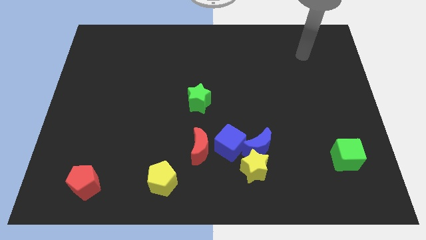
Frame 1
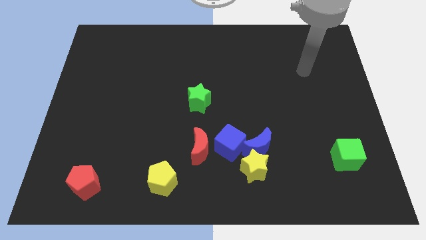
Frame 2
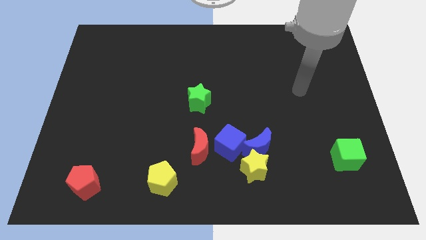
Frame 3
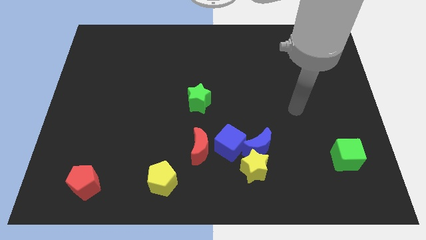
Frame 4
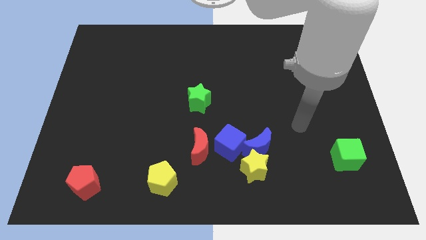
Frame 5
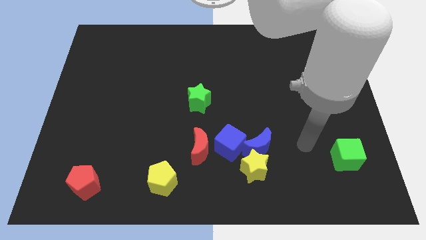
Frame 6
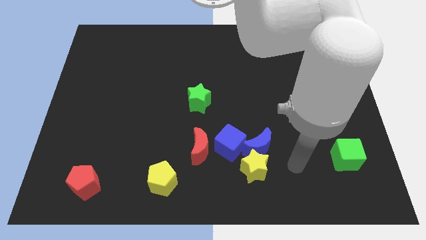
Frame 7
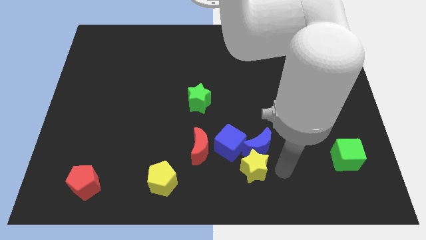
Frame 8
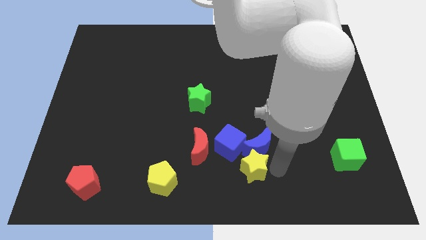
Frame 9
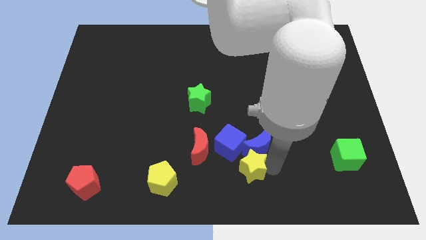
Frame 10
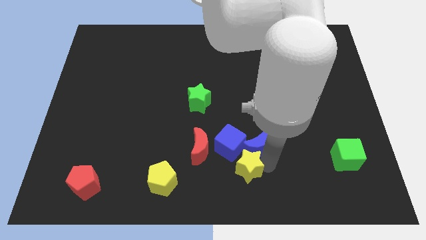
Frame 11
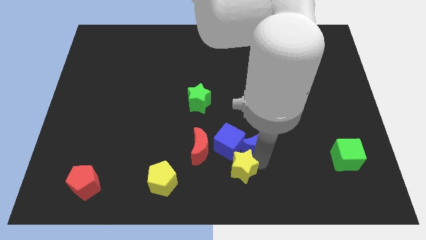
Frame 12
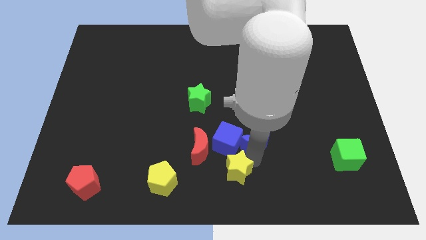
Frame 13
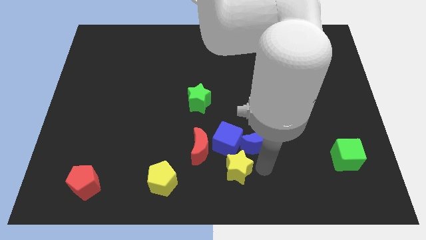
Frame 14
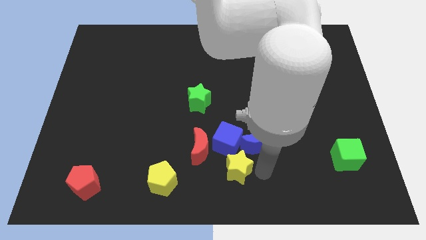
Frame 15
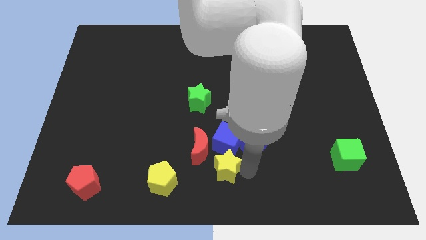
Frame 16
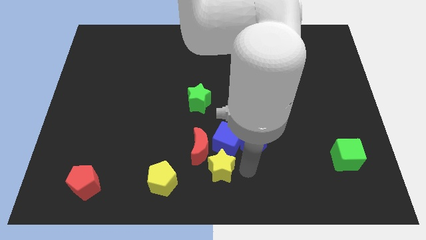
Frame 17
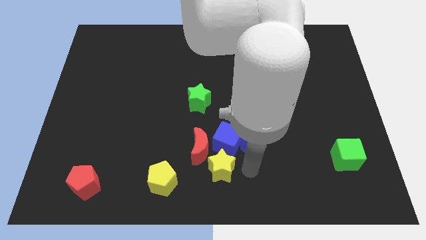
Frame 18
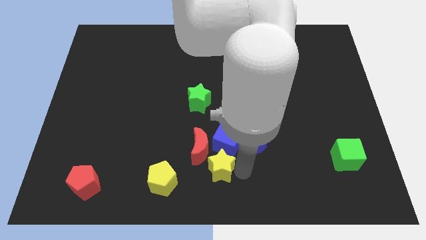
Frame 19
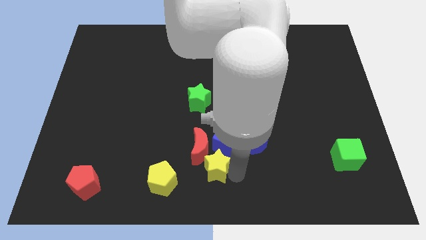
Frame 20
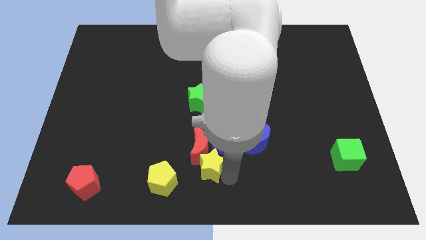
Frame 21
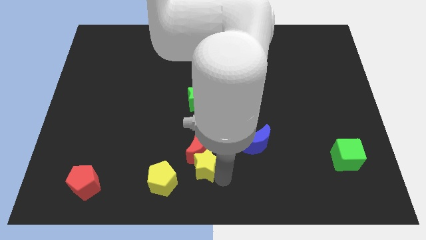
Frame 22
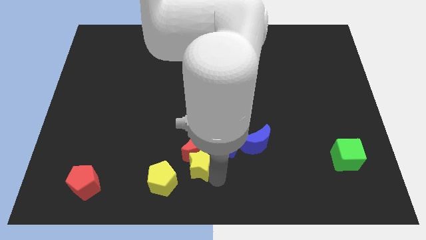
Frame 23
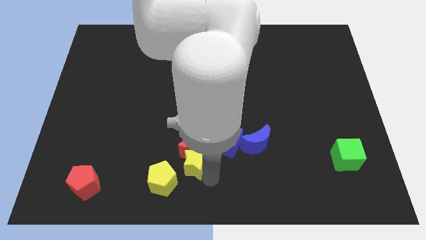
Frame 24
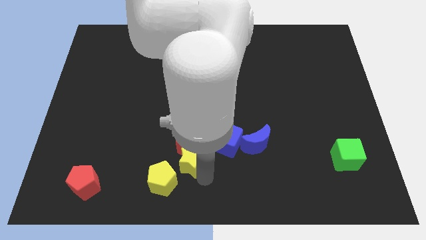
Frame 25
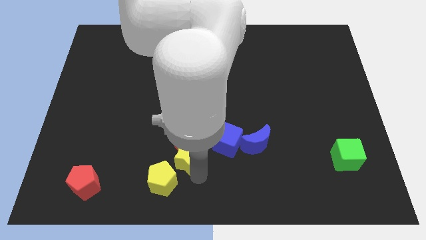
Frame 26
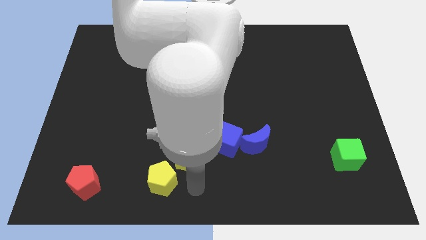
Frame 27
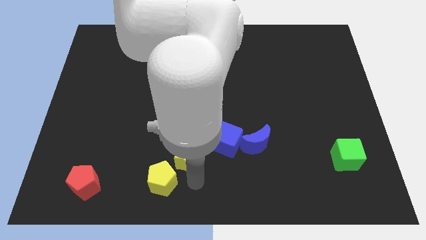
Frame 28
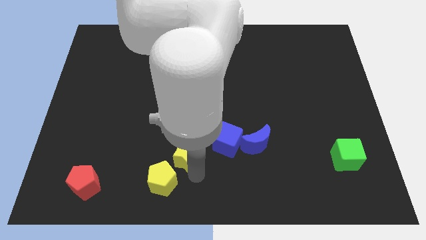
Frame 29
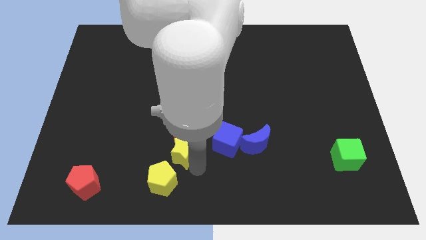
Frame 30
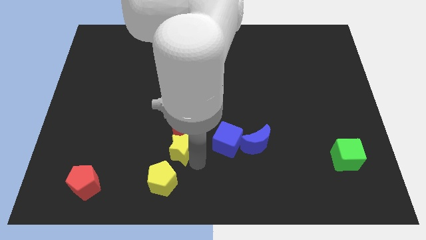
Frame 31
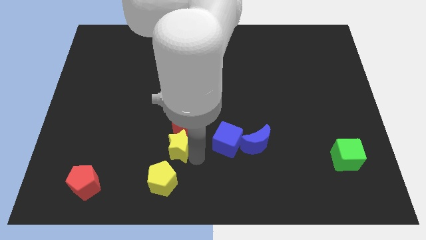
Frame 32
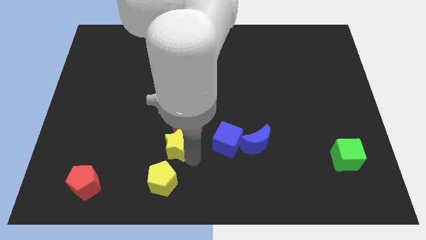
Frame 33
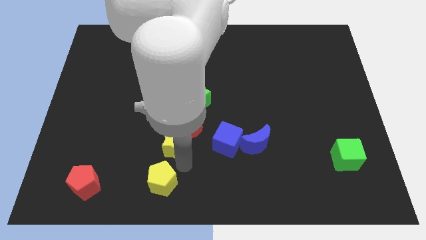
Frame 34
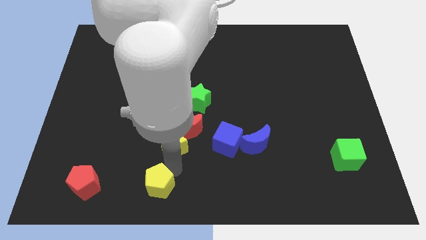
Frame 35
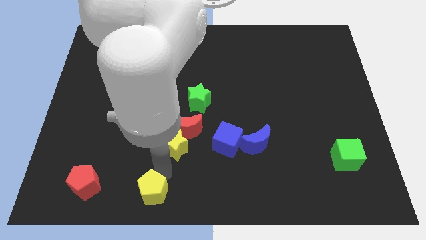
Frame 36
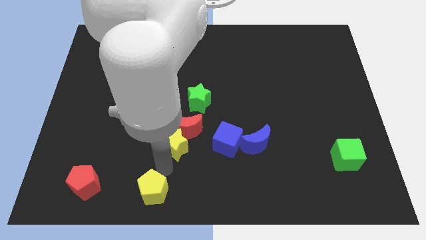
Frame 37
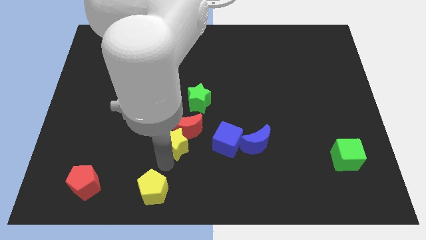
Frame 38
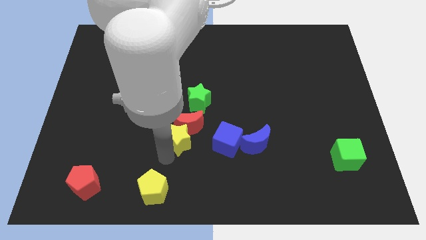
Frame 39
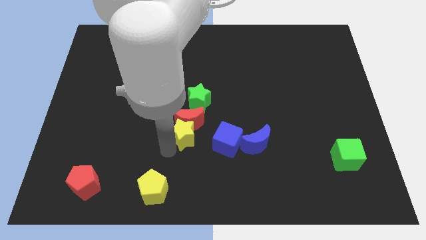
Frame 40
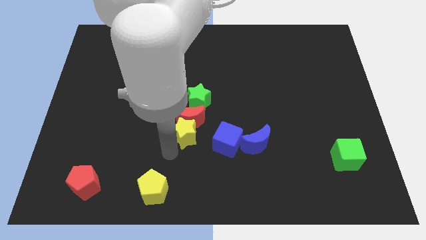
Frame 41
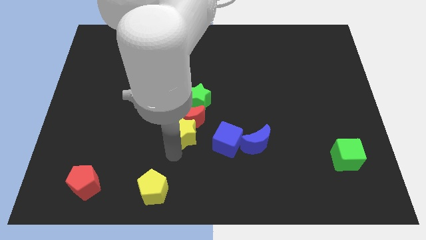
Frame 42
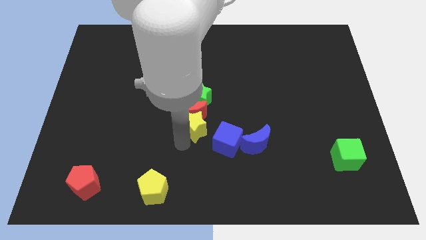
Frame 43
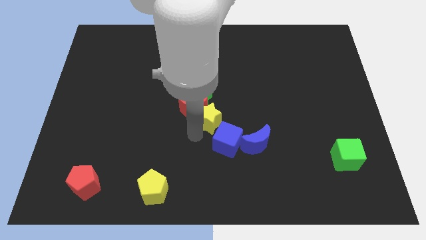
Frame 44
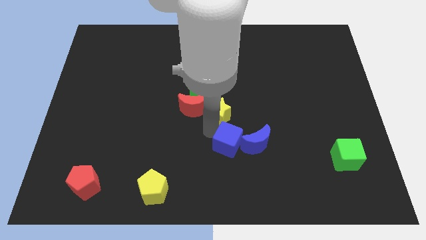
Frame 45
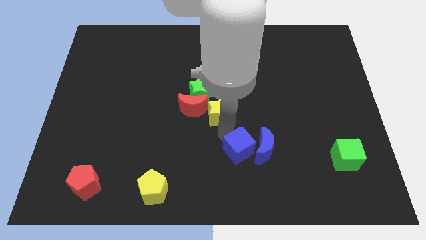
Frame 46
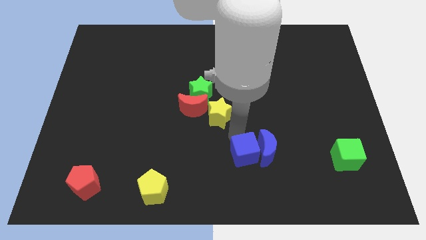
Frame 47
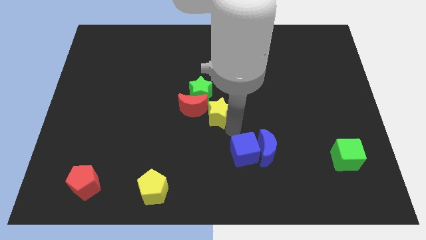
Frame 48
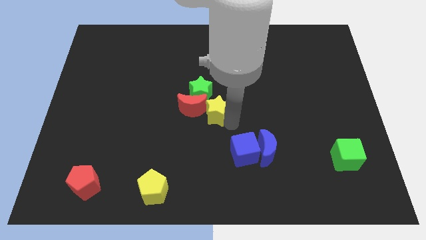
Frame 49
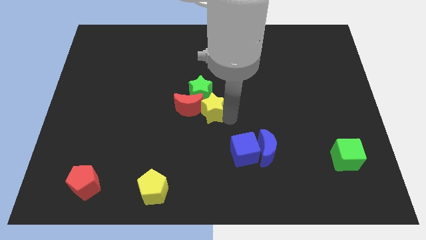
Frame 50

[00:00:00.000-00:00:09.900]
put the yellow star to the green star

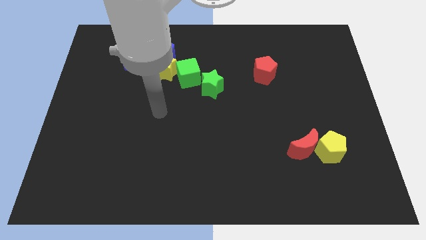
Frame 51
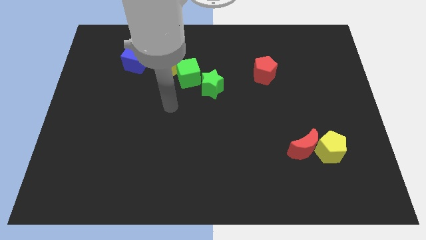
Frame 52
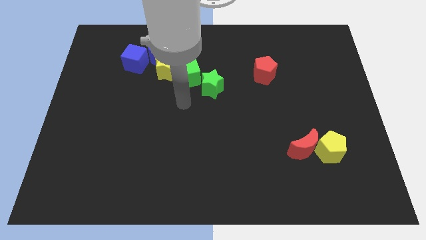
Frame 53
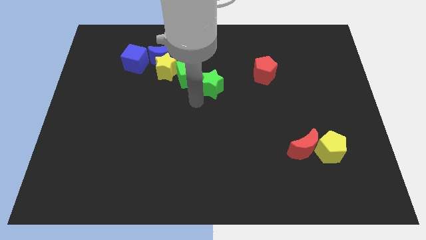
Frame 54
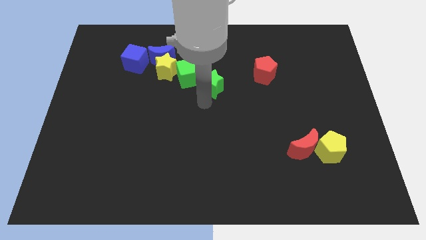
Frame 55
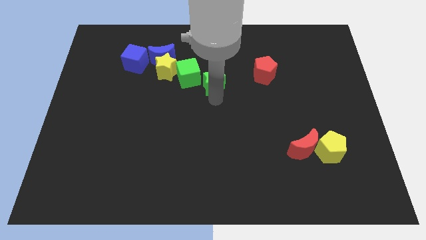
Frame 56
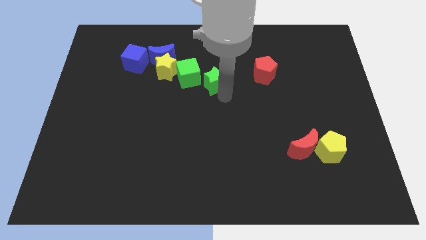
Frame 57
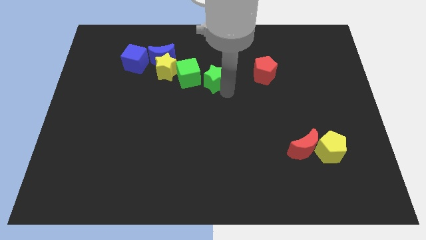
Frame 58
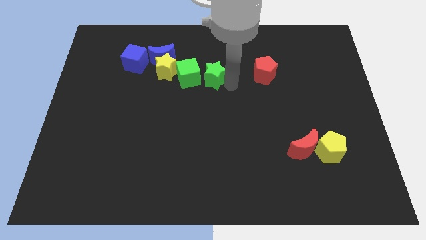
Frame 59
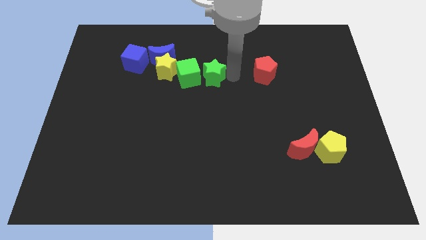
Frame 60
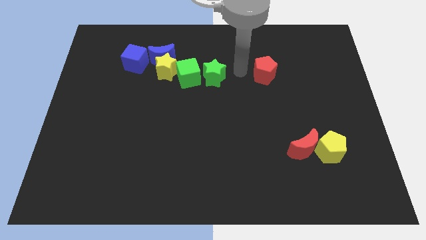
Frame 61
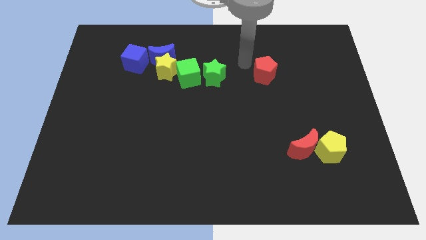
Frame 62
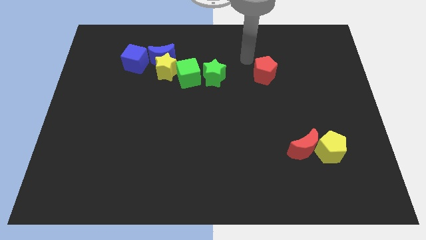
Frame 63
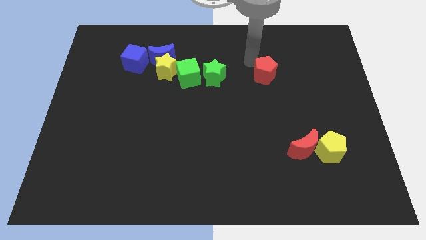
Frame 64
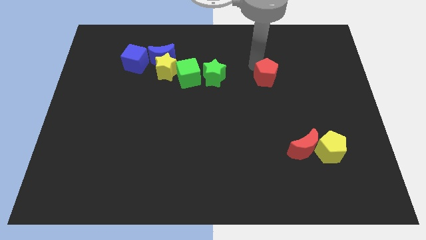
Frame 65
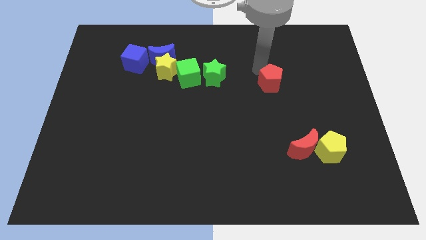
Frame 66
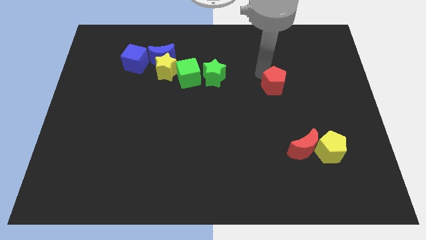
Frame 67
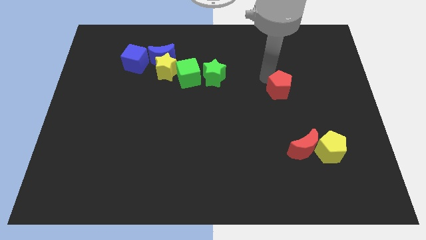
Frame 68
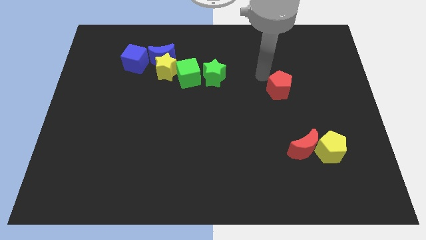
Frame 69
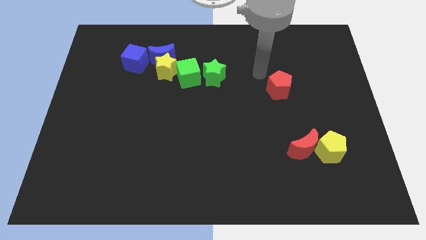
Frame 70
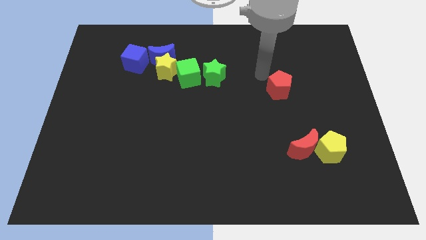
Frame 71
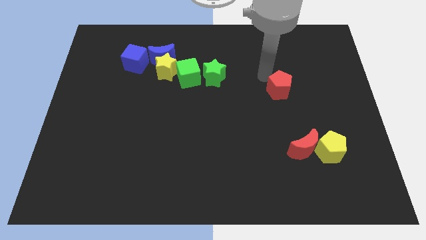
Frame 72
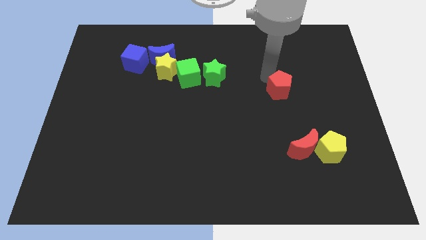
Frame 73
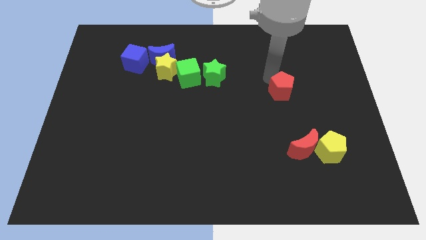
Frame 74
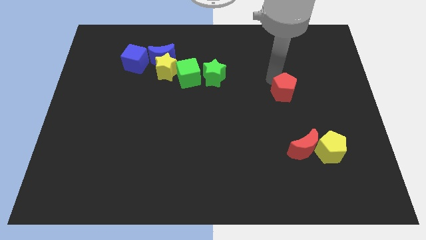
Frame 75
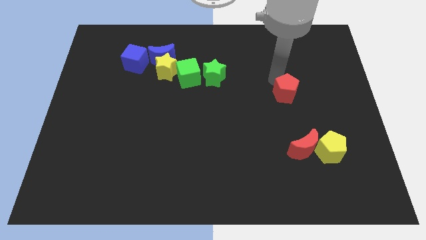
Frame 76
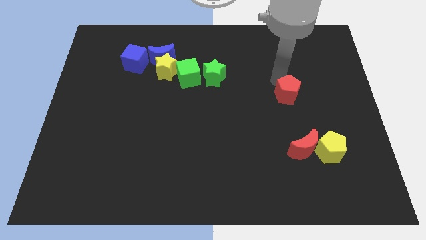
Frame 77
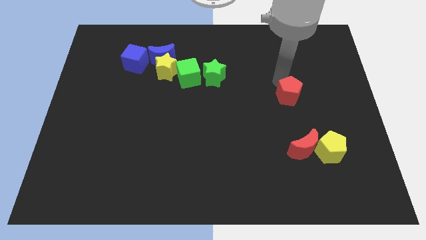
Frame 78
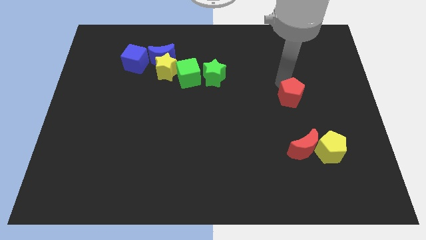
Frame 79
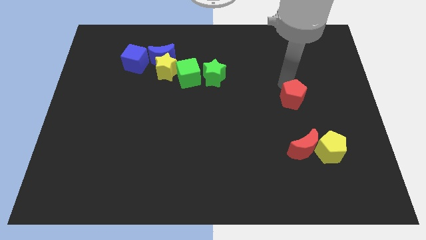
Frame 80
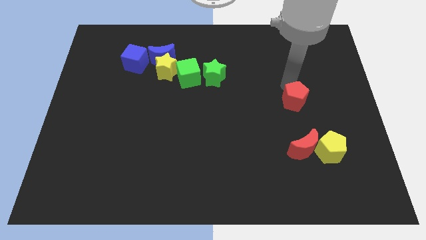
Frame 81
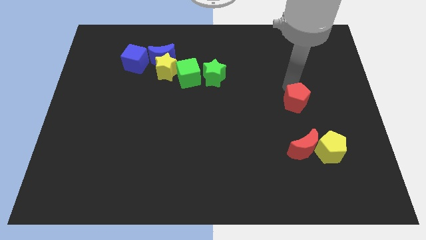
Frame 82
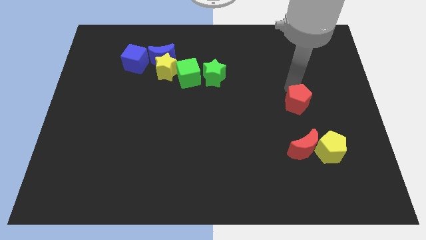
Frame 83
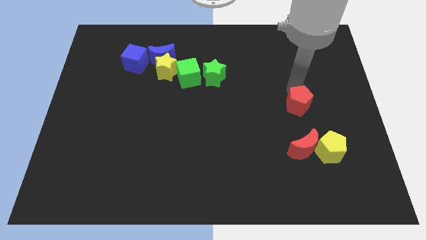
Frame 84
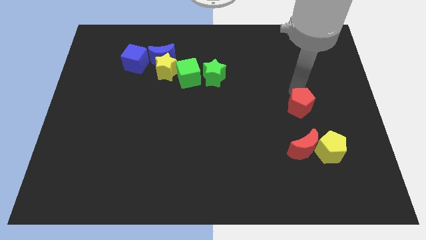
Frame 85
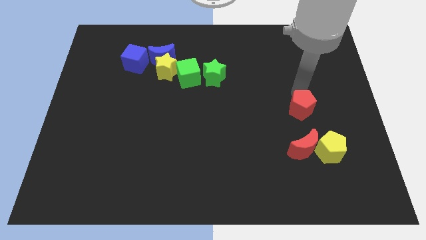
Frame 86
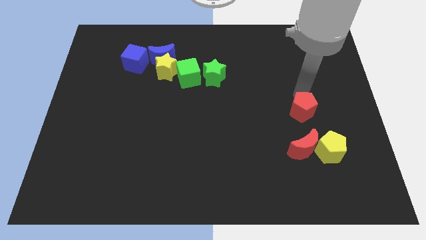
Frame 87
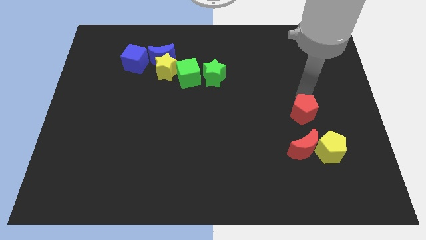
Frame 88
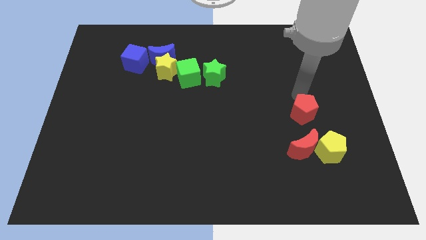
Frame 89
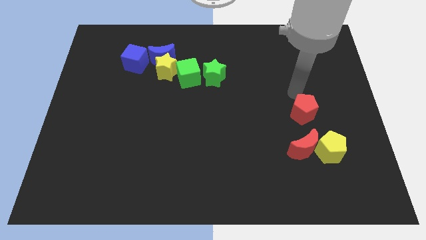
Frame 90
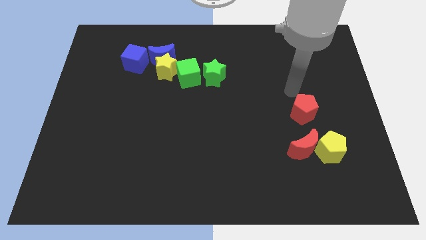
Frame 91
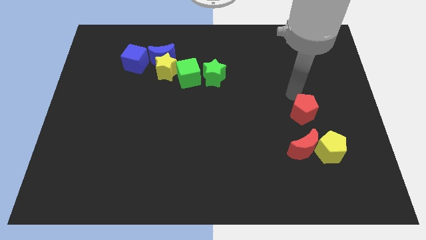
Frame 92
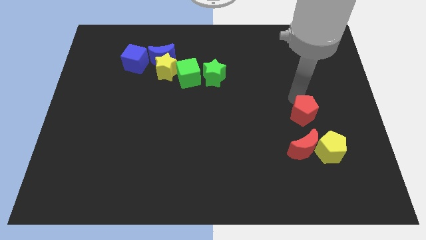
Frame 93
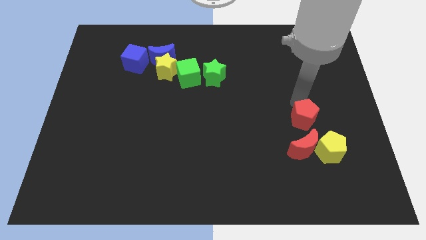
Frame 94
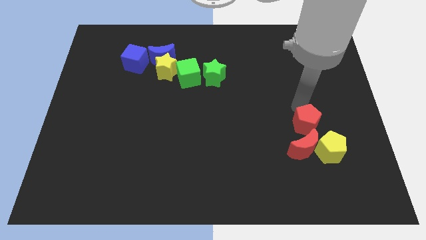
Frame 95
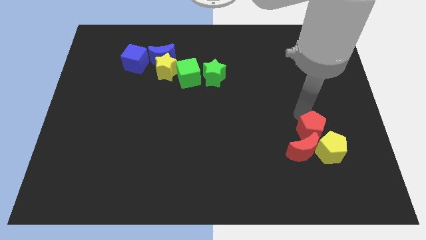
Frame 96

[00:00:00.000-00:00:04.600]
move the red pentagon to the yellow pentagon
